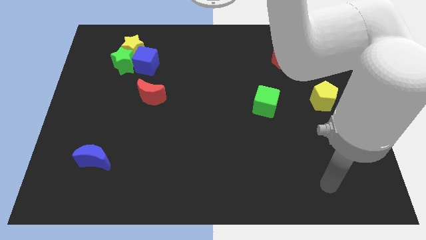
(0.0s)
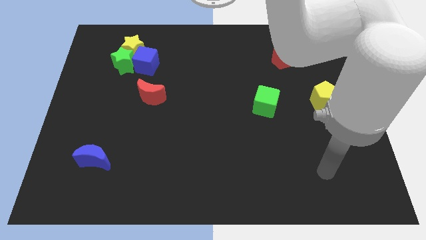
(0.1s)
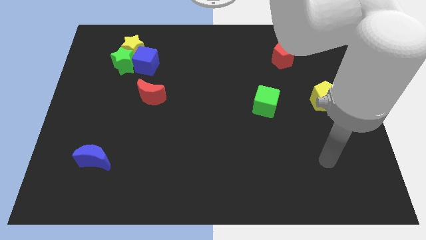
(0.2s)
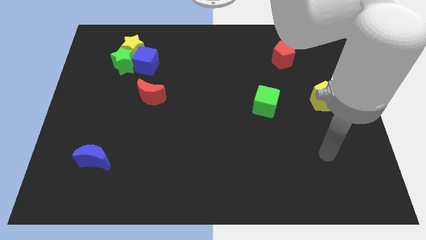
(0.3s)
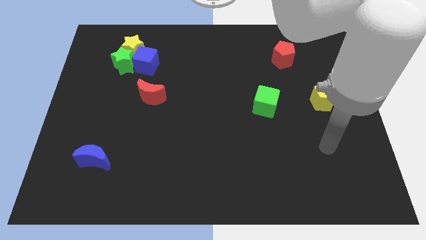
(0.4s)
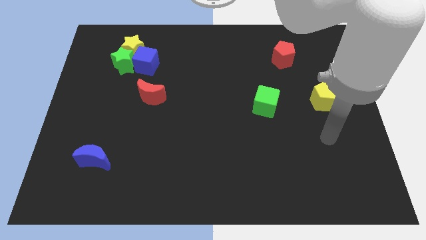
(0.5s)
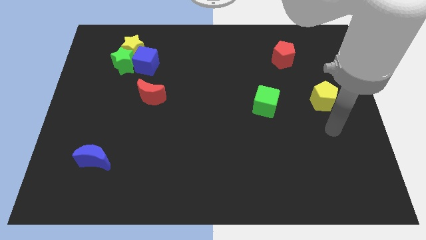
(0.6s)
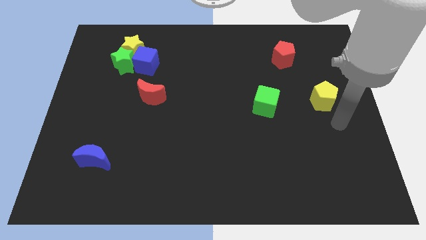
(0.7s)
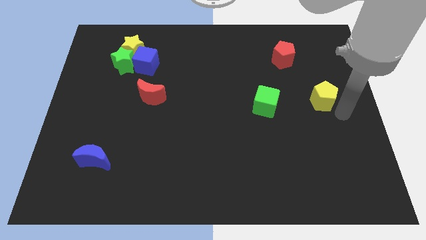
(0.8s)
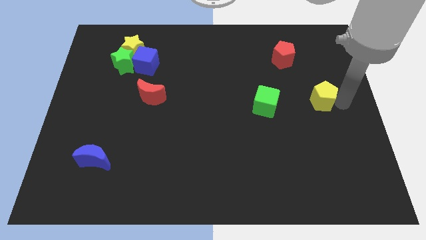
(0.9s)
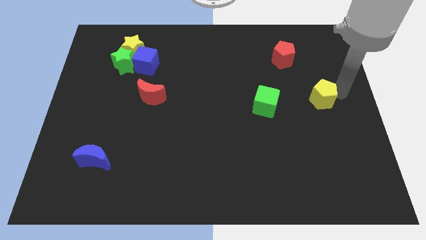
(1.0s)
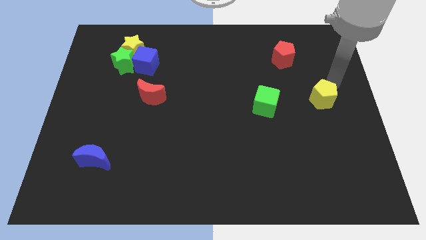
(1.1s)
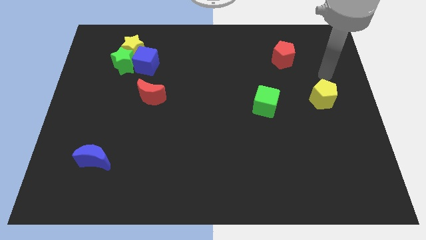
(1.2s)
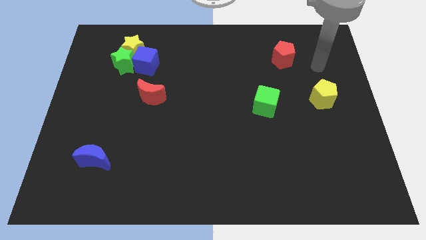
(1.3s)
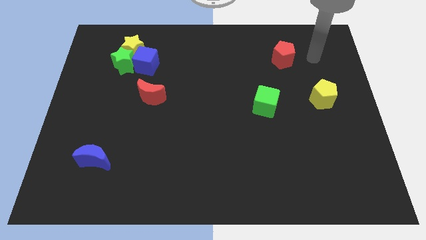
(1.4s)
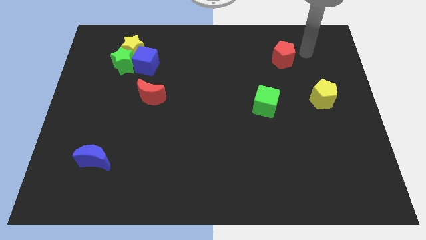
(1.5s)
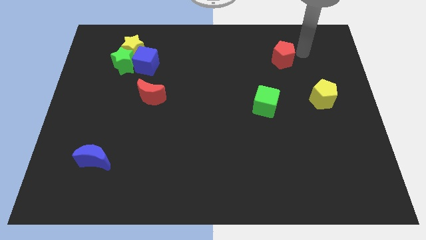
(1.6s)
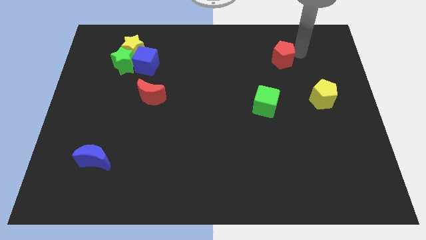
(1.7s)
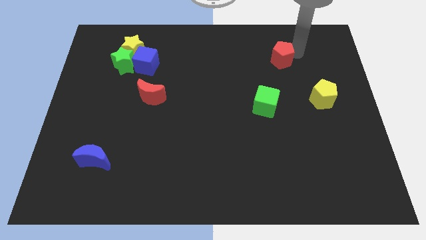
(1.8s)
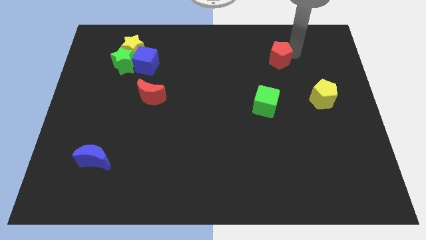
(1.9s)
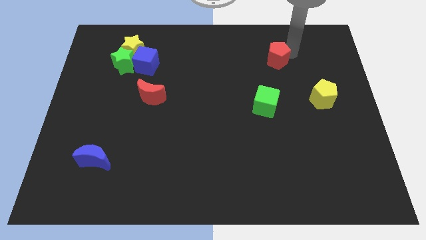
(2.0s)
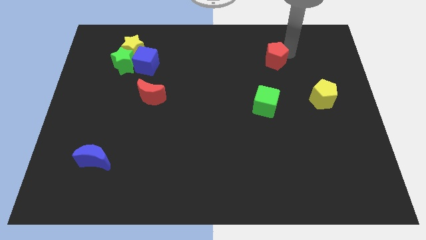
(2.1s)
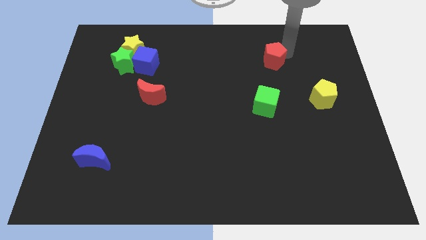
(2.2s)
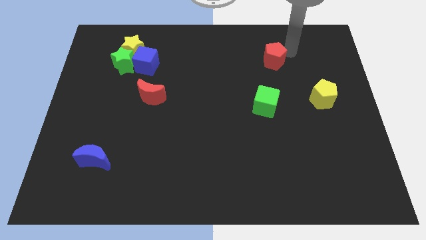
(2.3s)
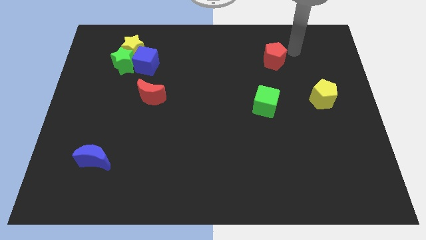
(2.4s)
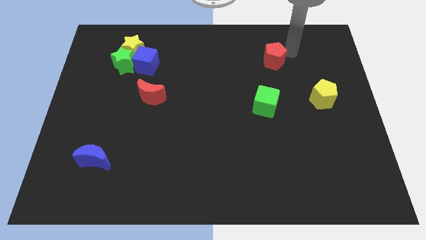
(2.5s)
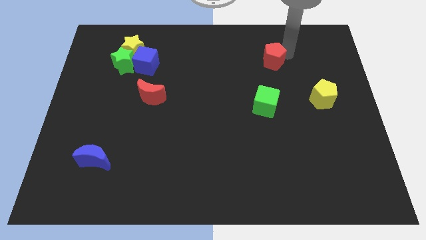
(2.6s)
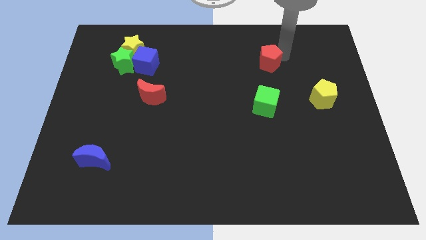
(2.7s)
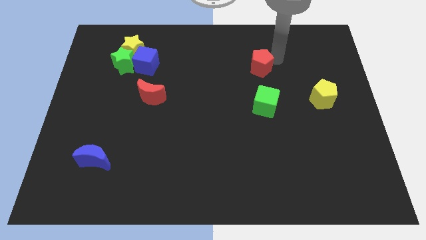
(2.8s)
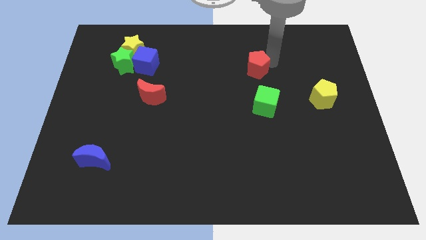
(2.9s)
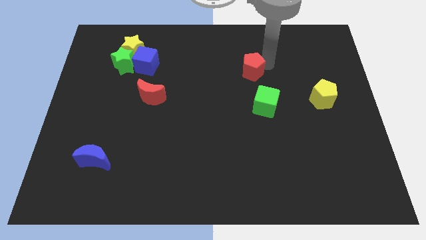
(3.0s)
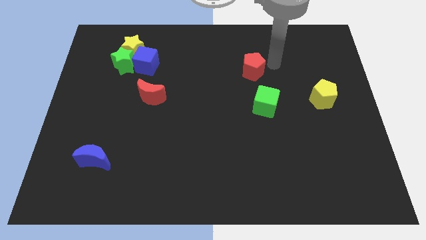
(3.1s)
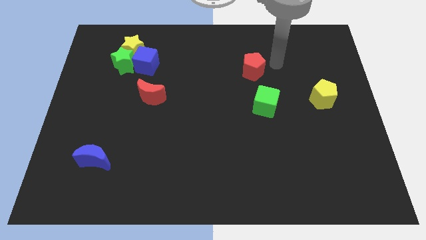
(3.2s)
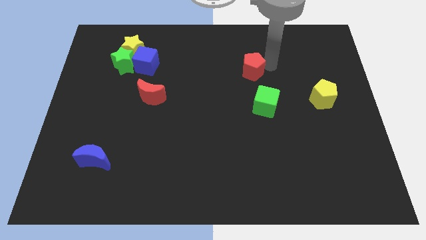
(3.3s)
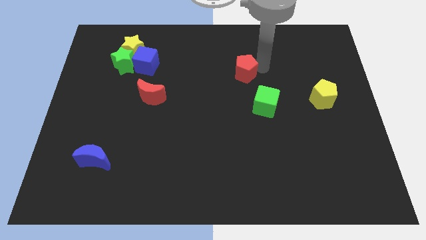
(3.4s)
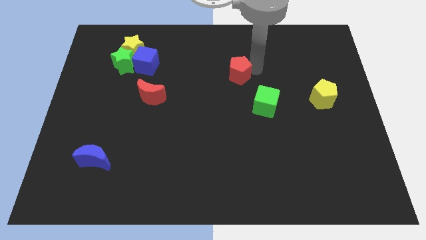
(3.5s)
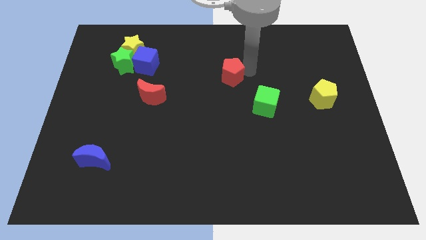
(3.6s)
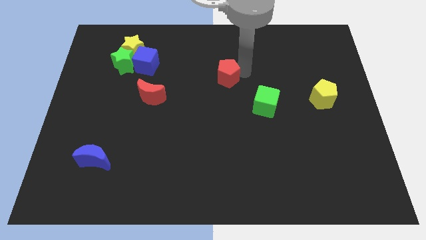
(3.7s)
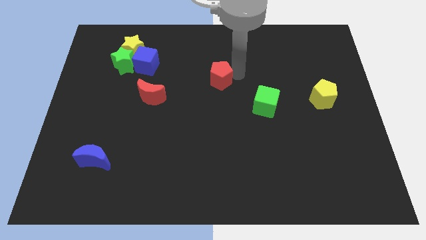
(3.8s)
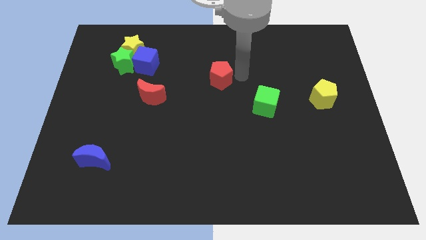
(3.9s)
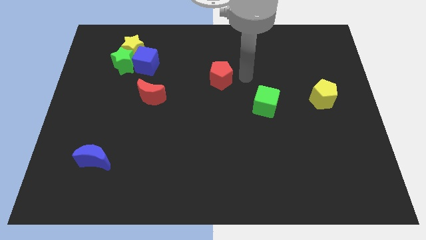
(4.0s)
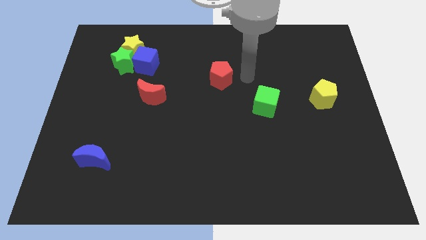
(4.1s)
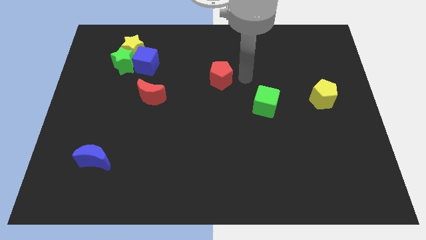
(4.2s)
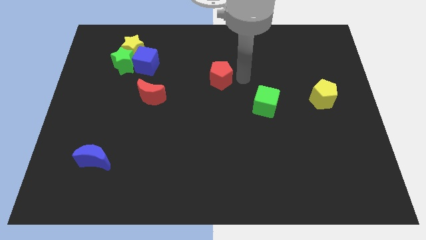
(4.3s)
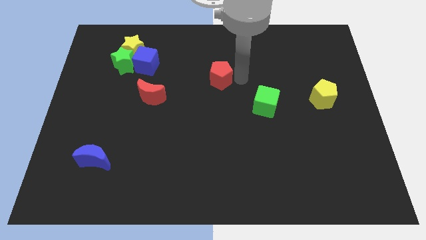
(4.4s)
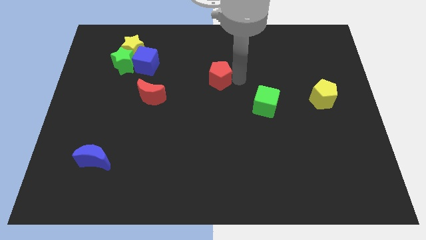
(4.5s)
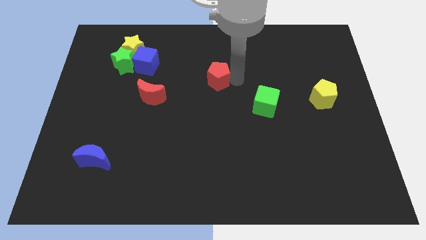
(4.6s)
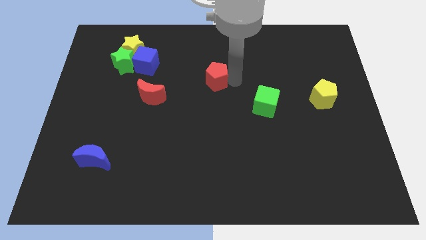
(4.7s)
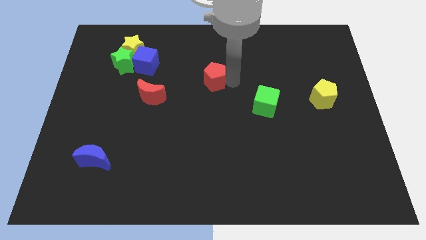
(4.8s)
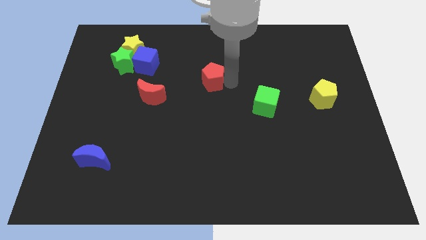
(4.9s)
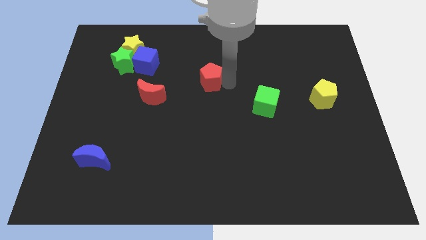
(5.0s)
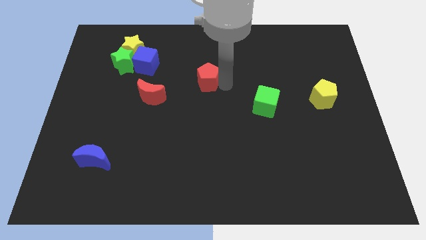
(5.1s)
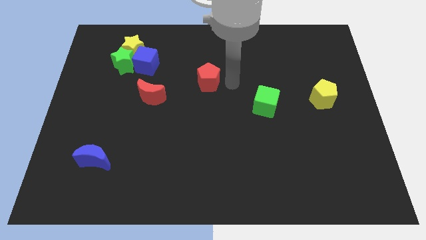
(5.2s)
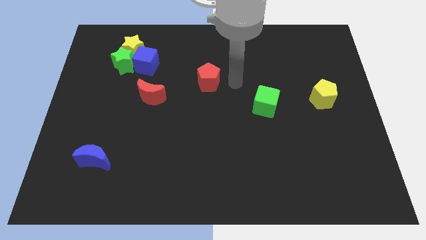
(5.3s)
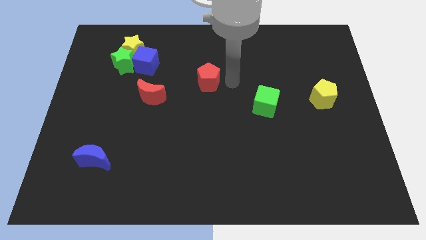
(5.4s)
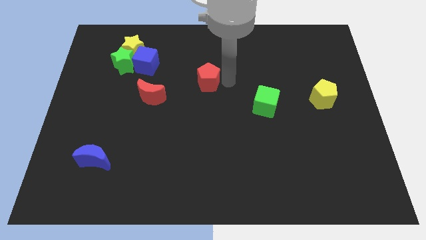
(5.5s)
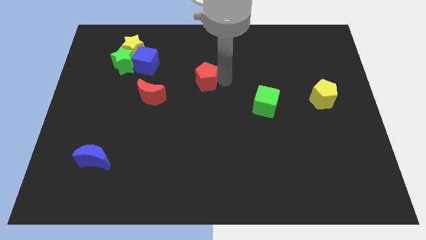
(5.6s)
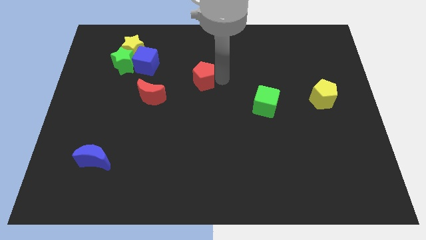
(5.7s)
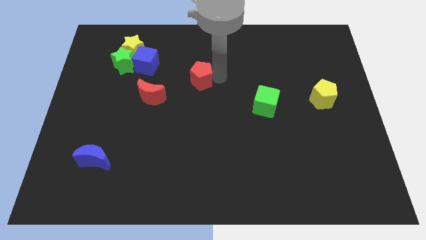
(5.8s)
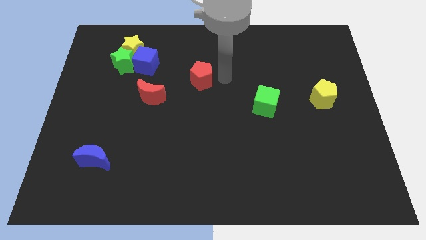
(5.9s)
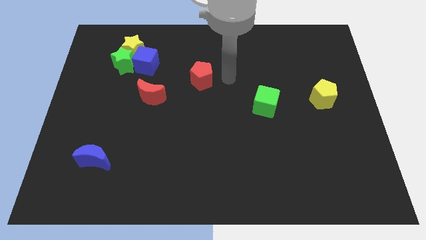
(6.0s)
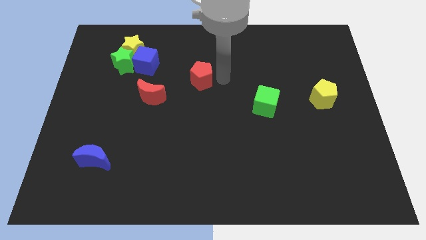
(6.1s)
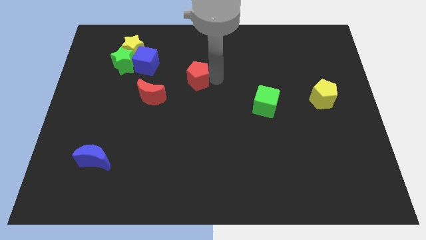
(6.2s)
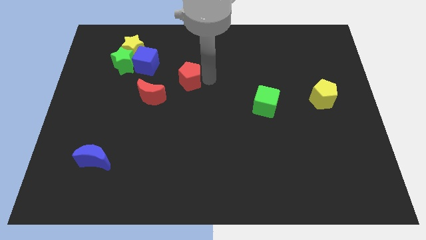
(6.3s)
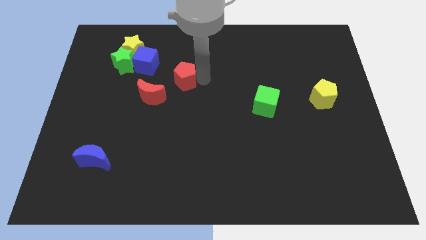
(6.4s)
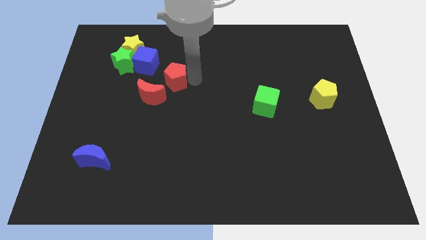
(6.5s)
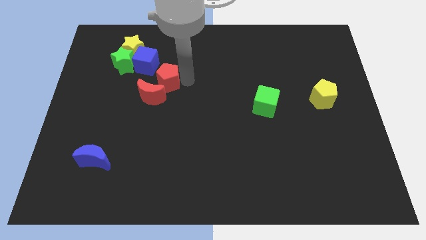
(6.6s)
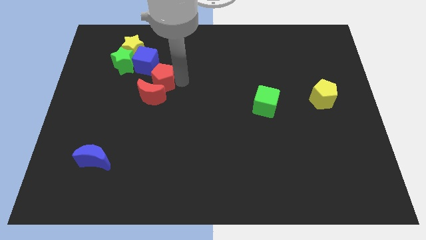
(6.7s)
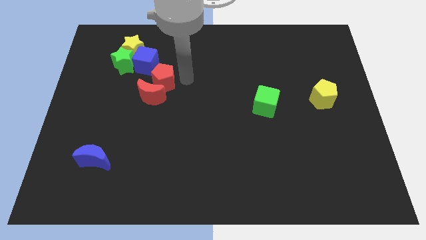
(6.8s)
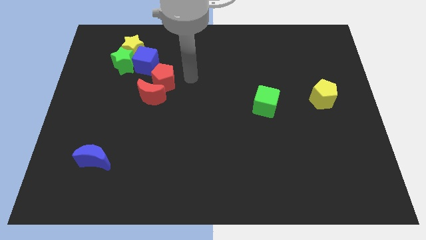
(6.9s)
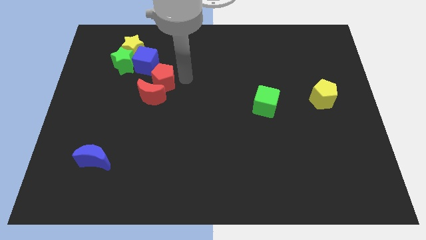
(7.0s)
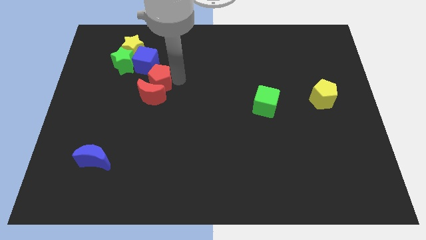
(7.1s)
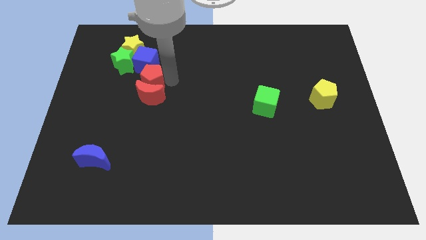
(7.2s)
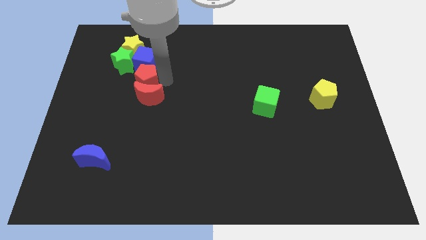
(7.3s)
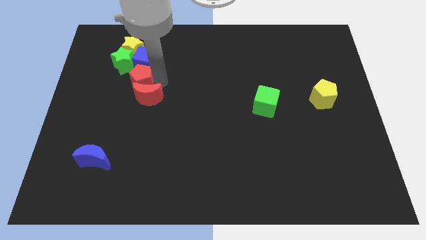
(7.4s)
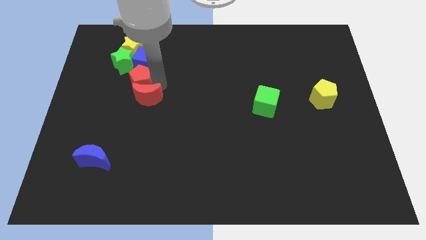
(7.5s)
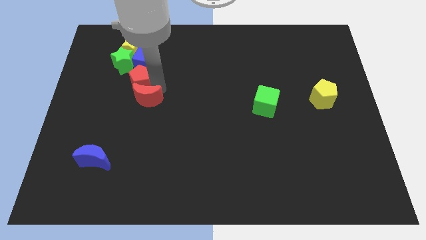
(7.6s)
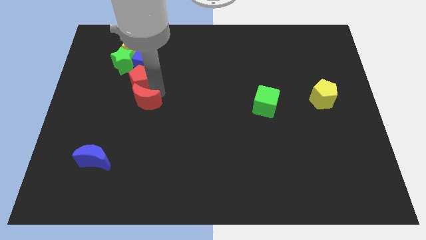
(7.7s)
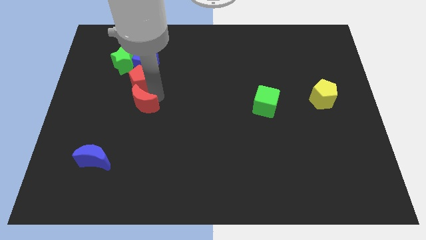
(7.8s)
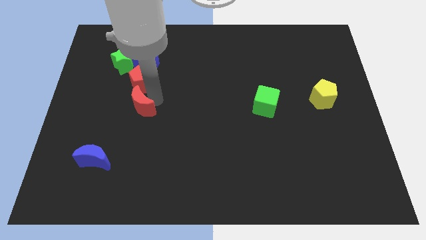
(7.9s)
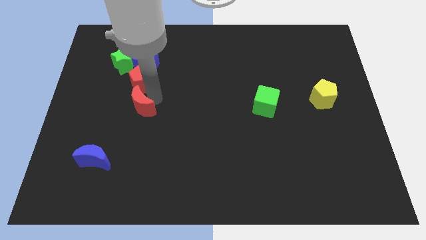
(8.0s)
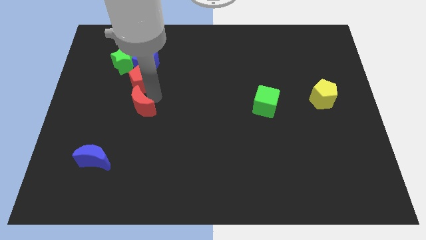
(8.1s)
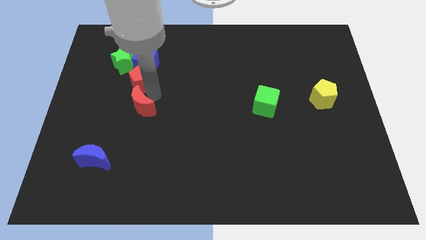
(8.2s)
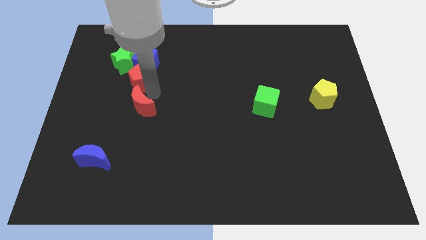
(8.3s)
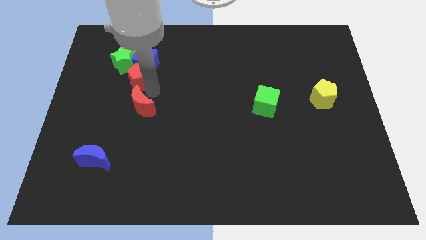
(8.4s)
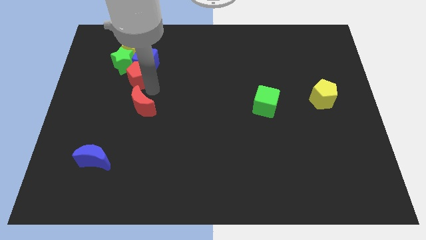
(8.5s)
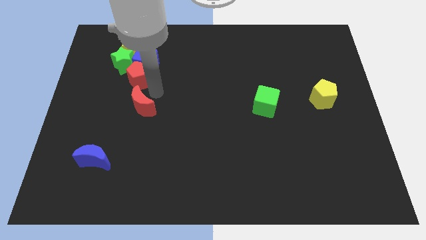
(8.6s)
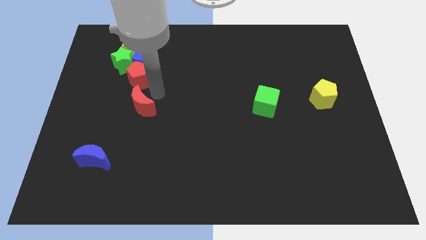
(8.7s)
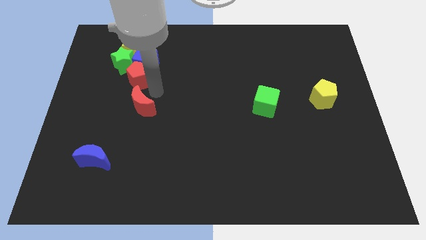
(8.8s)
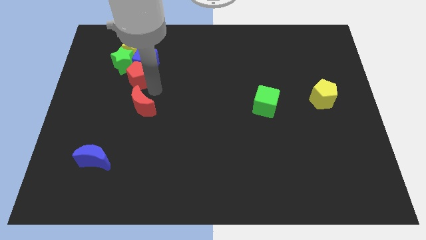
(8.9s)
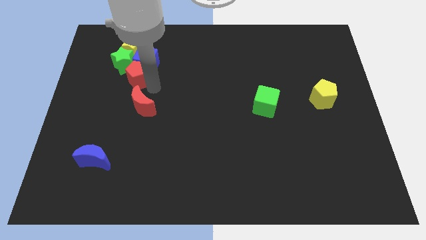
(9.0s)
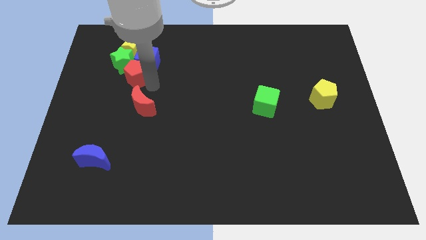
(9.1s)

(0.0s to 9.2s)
push the red pentagon to the green star
